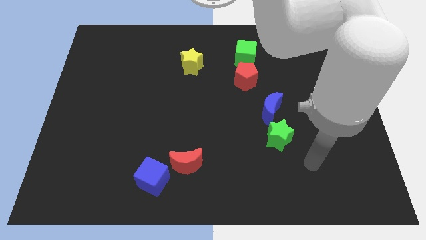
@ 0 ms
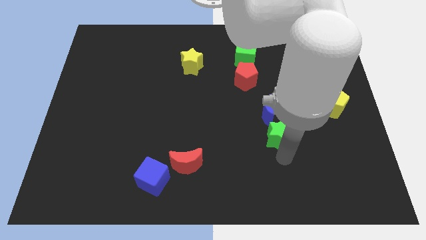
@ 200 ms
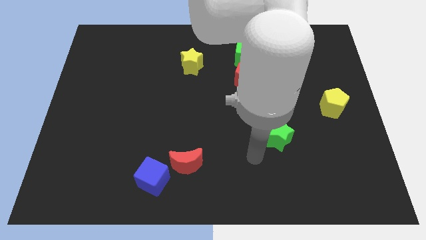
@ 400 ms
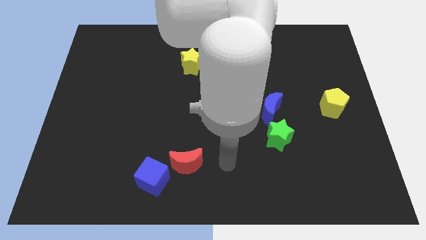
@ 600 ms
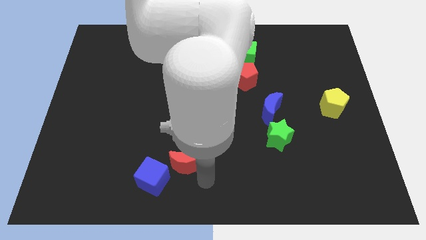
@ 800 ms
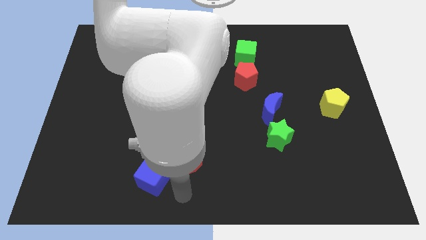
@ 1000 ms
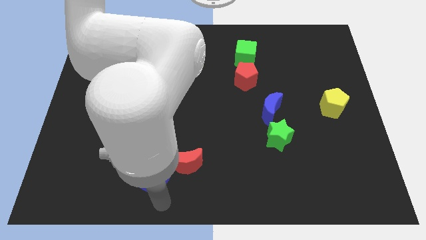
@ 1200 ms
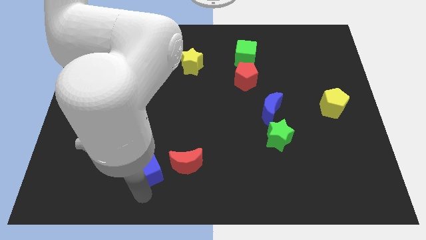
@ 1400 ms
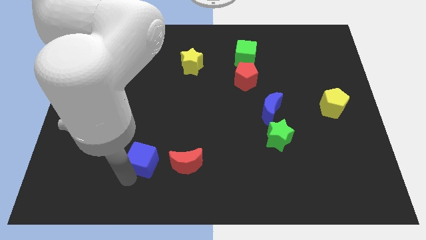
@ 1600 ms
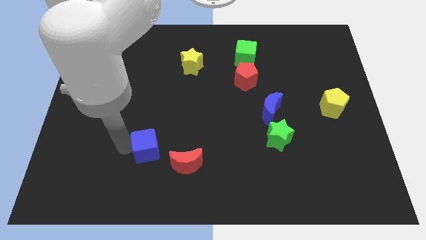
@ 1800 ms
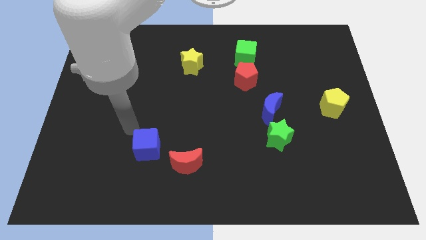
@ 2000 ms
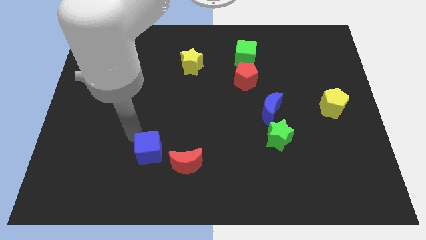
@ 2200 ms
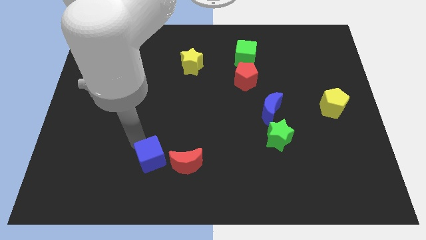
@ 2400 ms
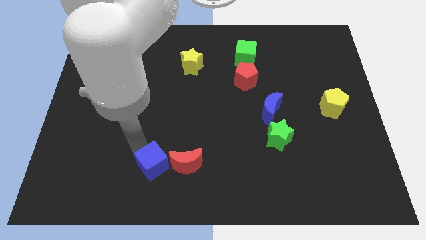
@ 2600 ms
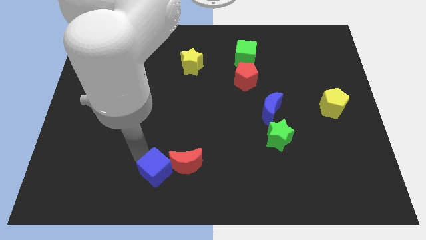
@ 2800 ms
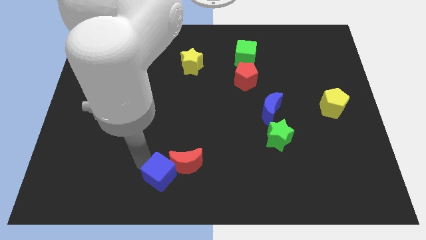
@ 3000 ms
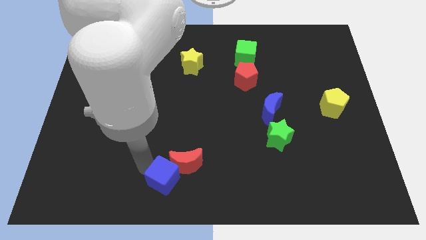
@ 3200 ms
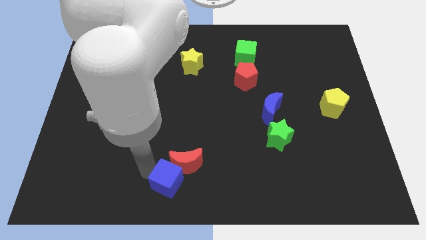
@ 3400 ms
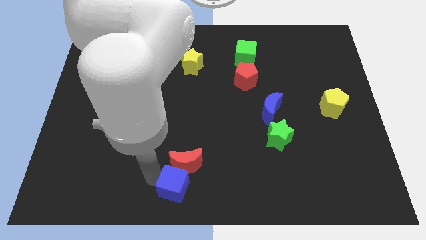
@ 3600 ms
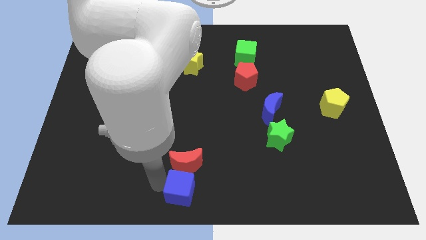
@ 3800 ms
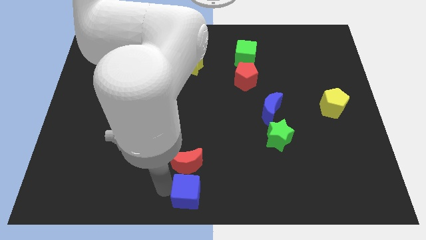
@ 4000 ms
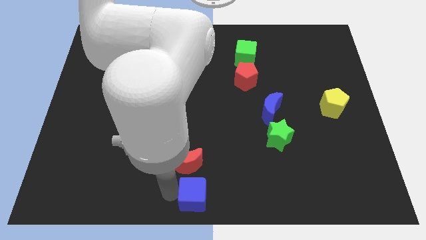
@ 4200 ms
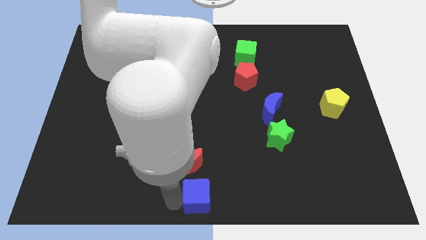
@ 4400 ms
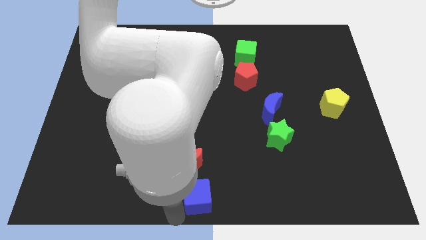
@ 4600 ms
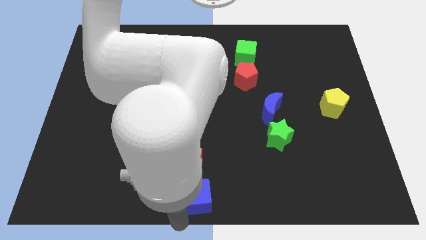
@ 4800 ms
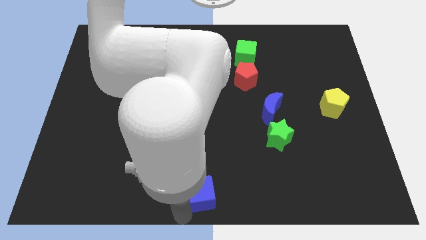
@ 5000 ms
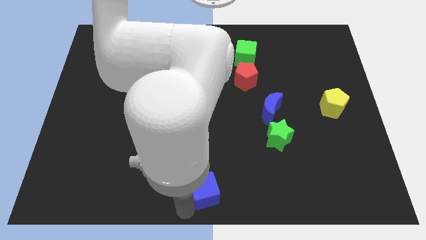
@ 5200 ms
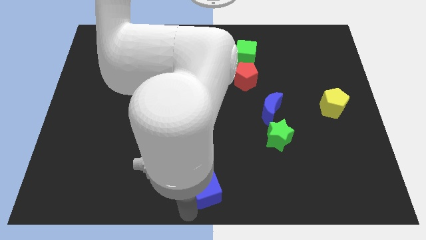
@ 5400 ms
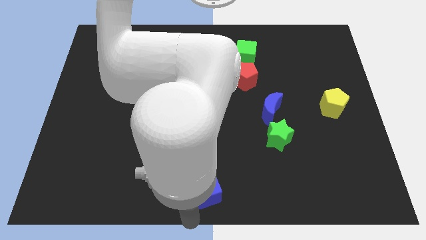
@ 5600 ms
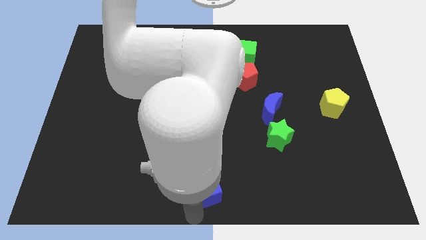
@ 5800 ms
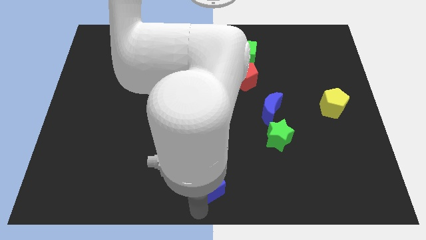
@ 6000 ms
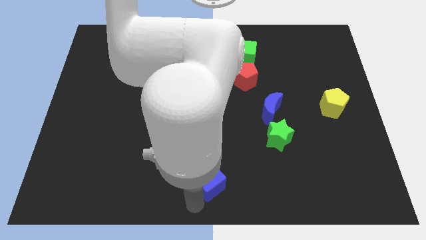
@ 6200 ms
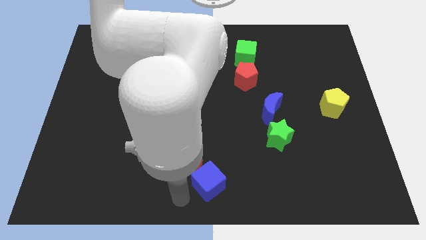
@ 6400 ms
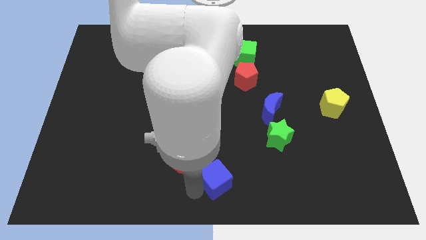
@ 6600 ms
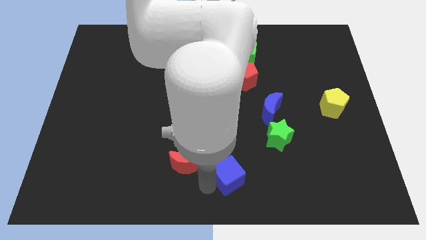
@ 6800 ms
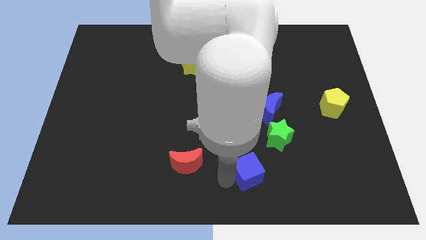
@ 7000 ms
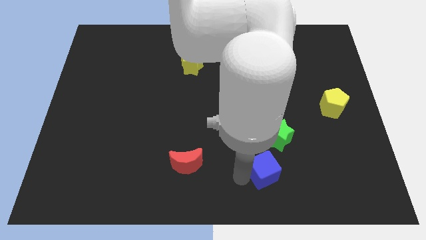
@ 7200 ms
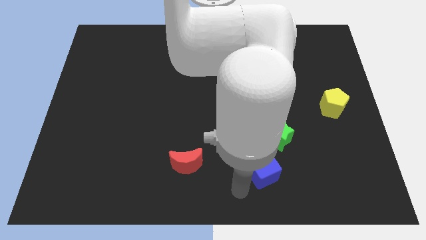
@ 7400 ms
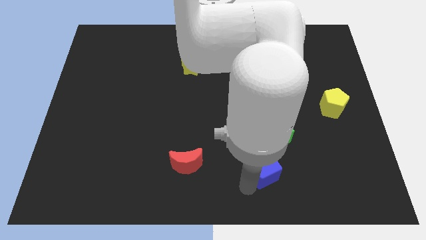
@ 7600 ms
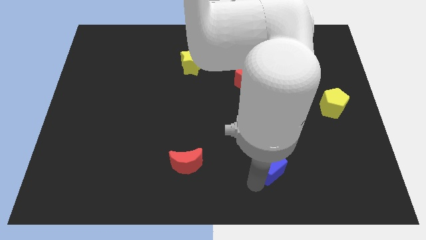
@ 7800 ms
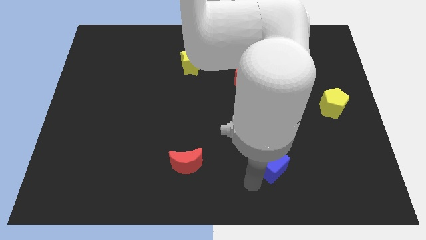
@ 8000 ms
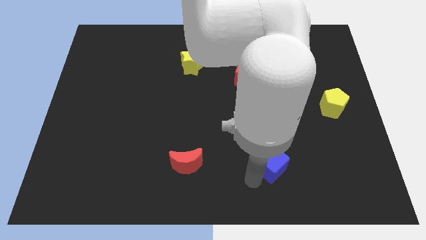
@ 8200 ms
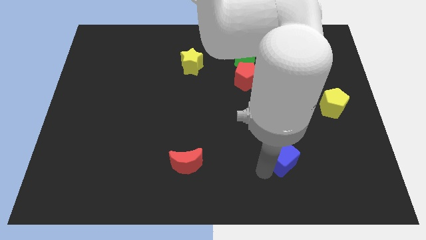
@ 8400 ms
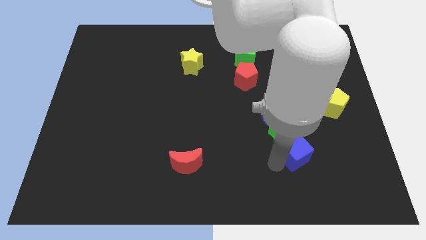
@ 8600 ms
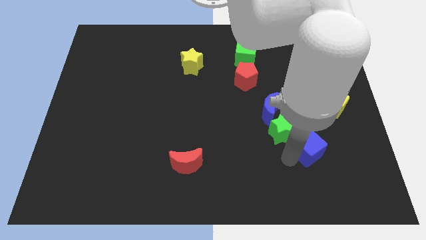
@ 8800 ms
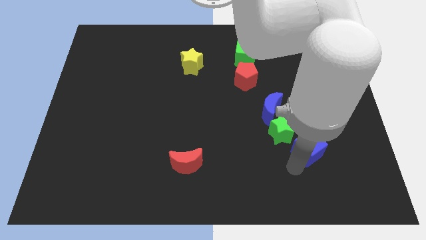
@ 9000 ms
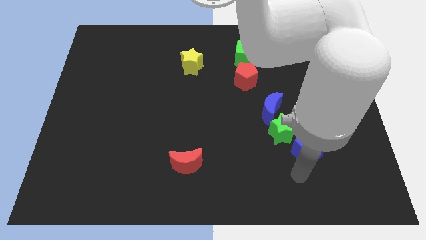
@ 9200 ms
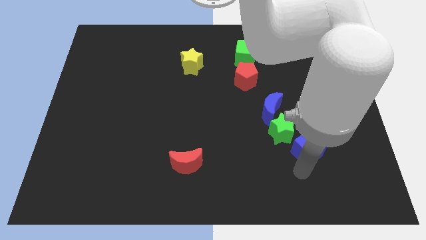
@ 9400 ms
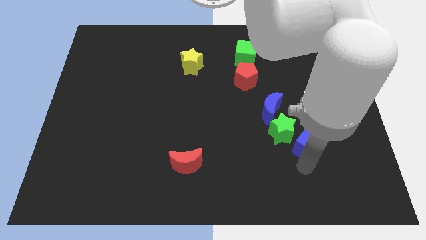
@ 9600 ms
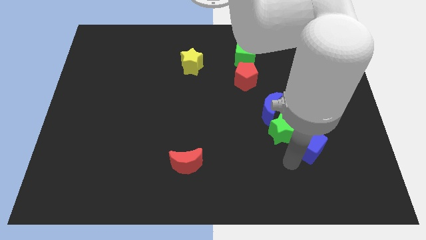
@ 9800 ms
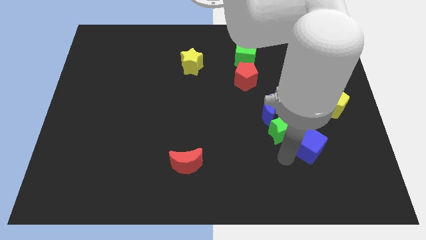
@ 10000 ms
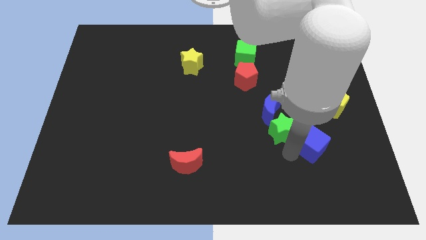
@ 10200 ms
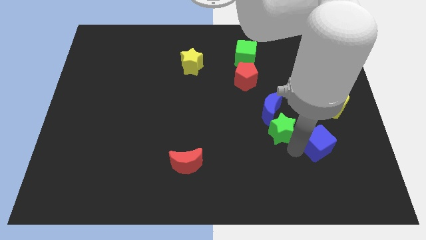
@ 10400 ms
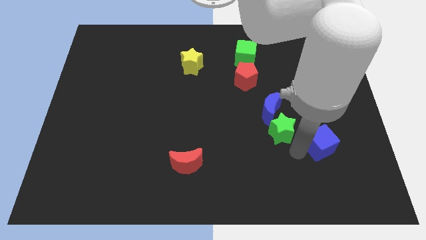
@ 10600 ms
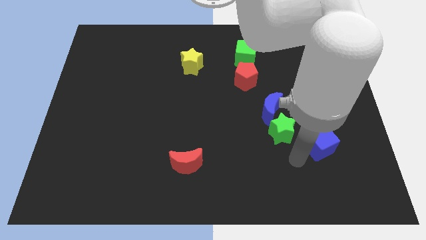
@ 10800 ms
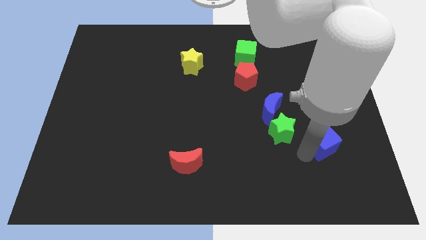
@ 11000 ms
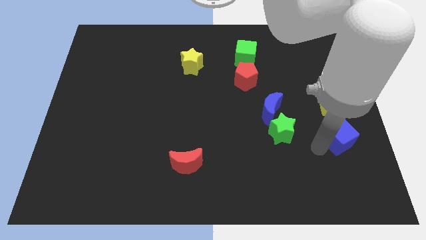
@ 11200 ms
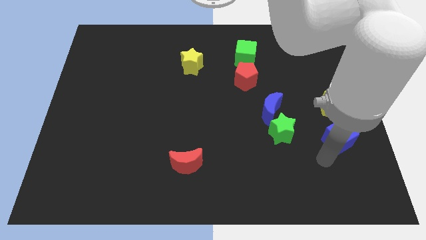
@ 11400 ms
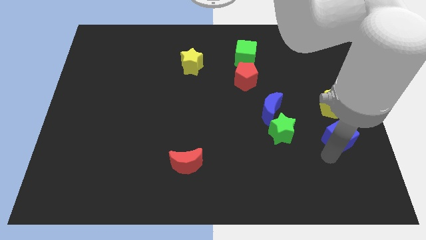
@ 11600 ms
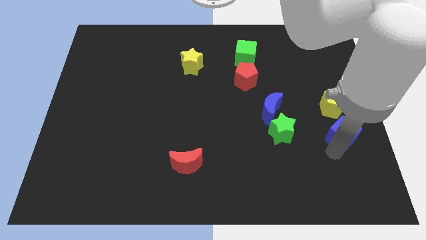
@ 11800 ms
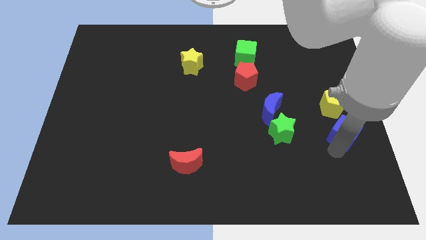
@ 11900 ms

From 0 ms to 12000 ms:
put the blue cube to the right side of the board
